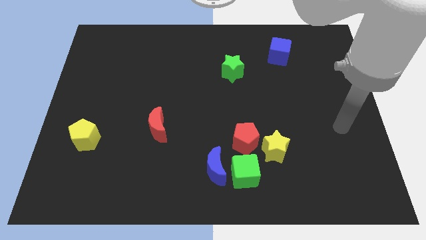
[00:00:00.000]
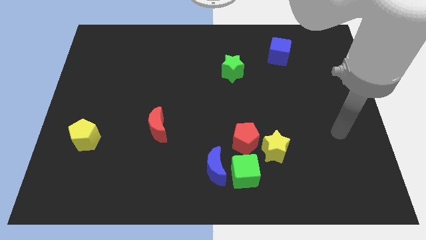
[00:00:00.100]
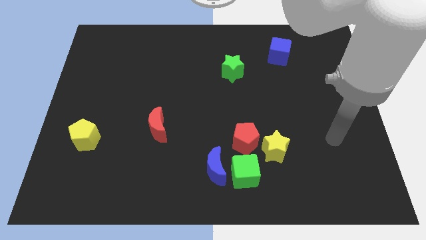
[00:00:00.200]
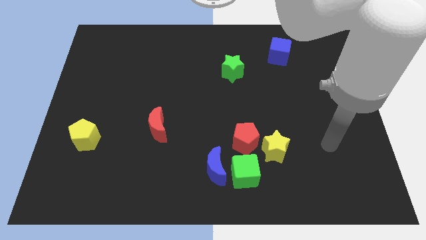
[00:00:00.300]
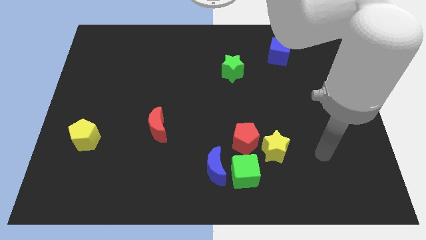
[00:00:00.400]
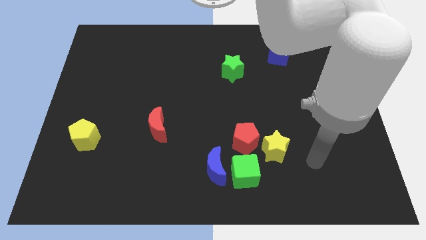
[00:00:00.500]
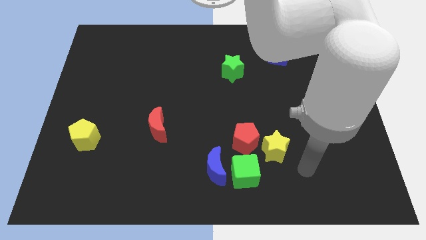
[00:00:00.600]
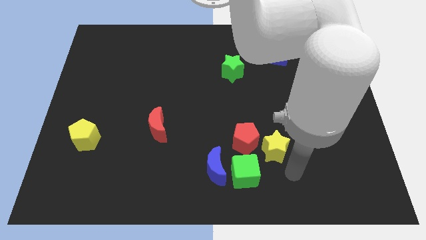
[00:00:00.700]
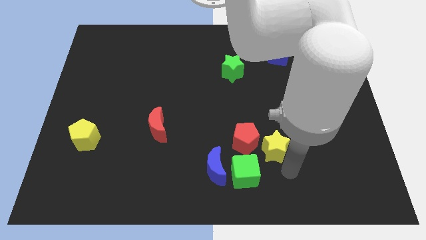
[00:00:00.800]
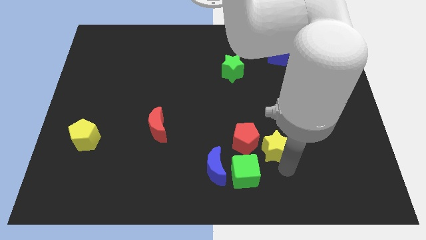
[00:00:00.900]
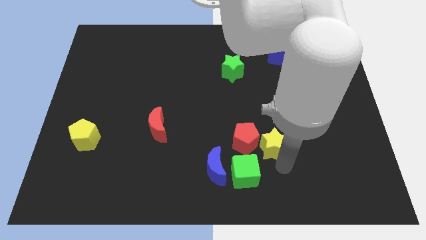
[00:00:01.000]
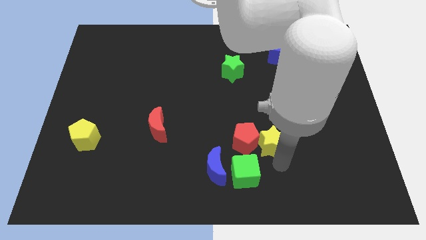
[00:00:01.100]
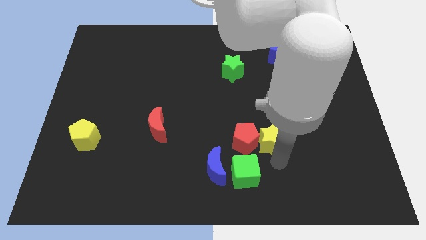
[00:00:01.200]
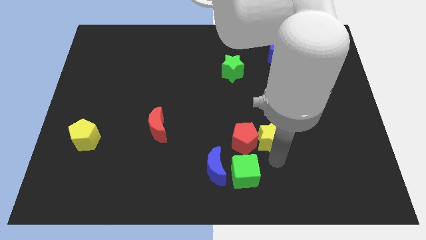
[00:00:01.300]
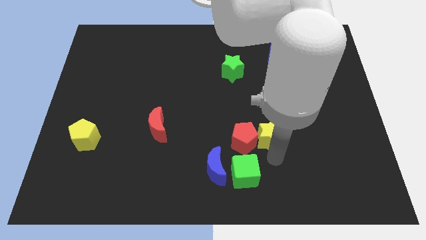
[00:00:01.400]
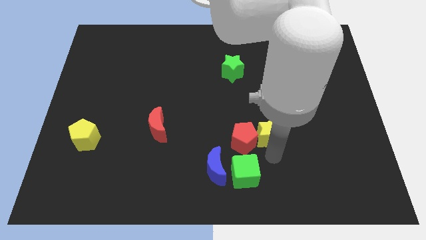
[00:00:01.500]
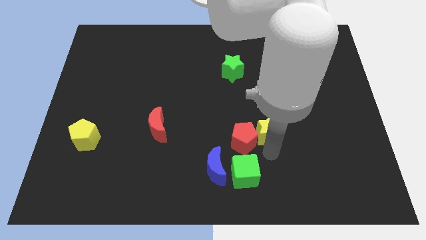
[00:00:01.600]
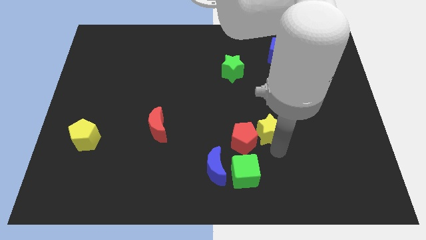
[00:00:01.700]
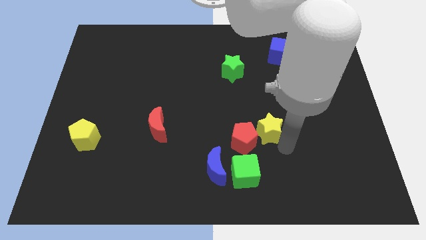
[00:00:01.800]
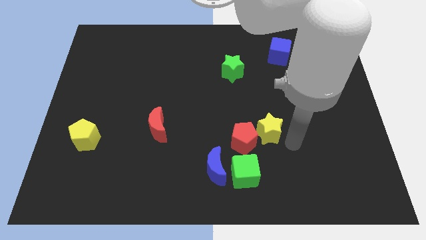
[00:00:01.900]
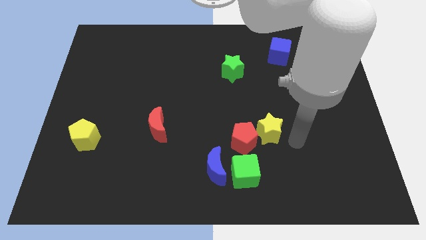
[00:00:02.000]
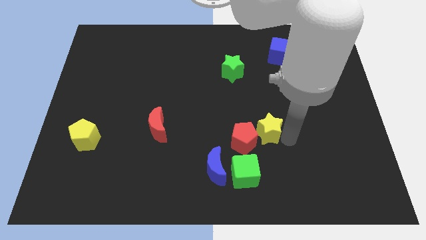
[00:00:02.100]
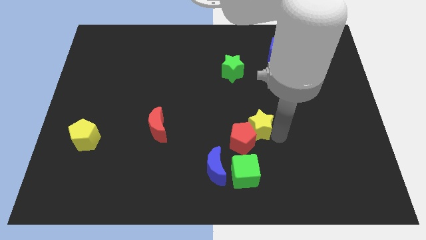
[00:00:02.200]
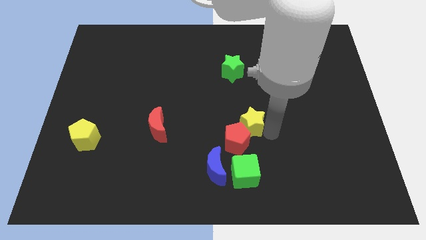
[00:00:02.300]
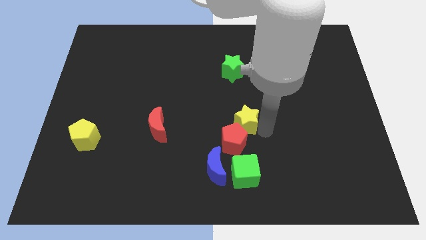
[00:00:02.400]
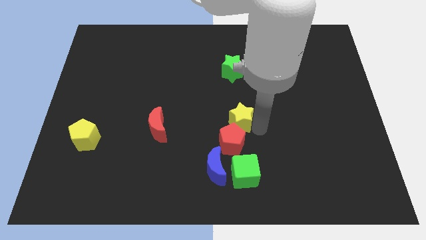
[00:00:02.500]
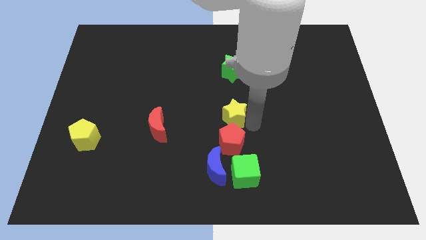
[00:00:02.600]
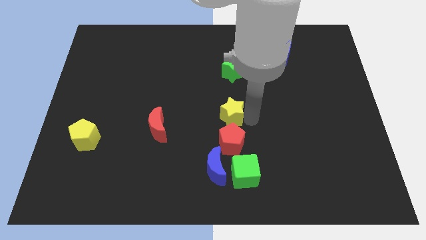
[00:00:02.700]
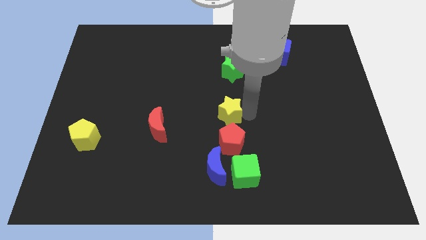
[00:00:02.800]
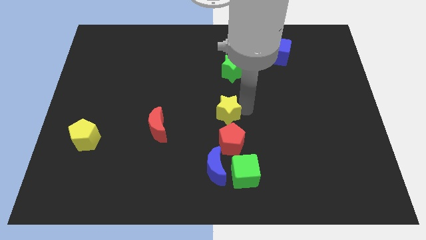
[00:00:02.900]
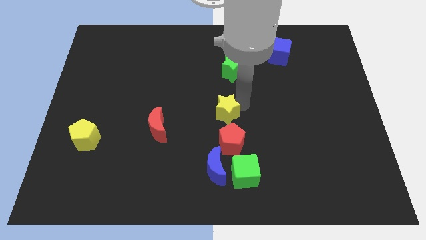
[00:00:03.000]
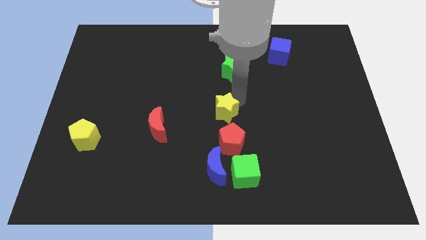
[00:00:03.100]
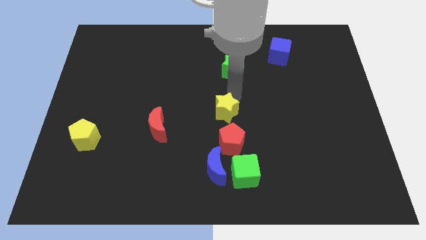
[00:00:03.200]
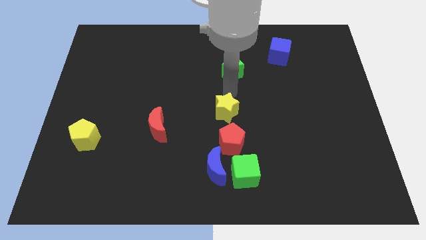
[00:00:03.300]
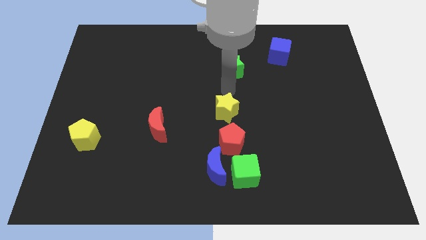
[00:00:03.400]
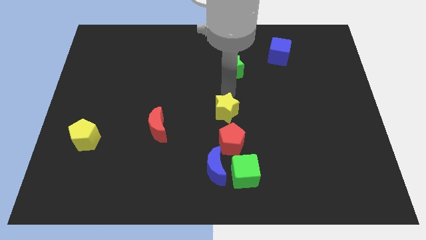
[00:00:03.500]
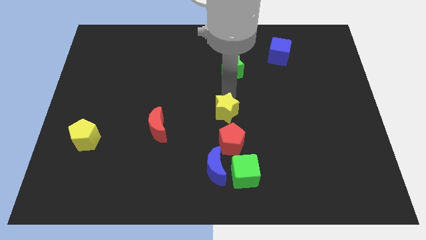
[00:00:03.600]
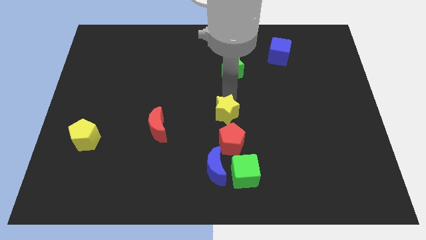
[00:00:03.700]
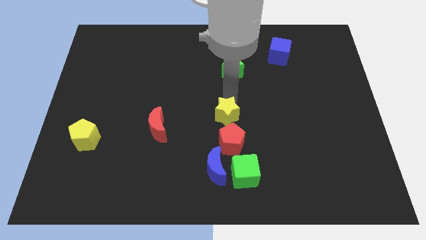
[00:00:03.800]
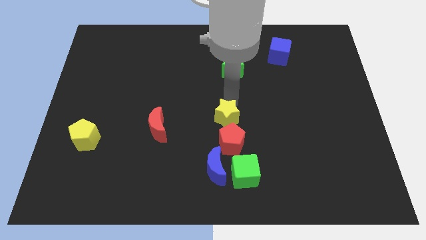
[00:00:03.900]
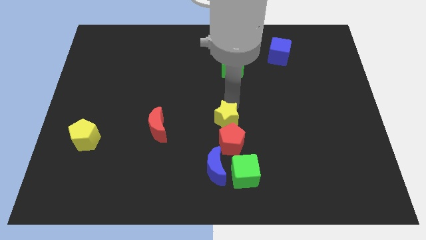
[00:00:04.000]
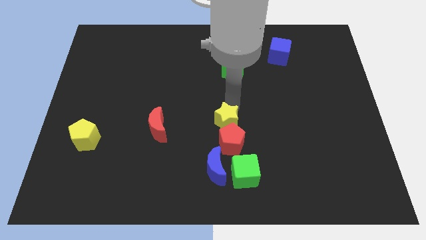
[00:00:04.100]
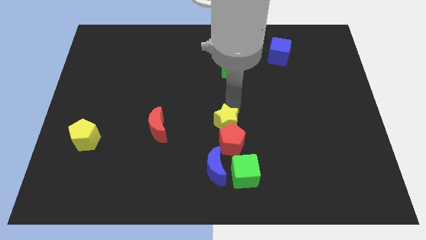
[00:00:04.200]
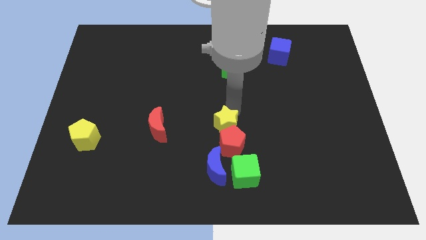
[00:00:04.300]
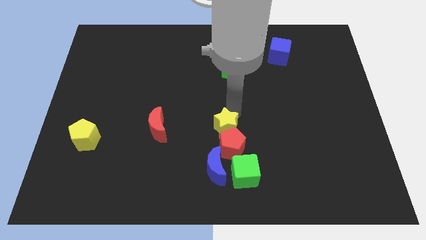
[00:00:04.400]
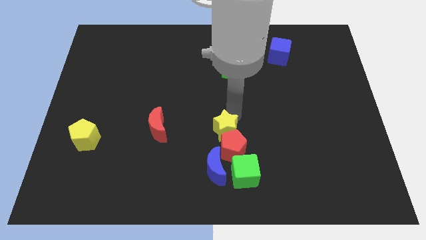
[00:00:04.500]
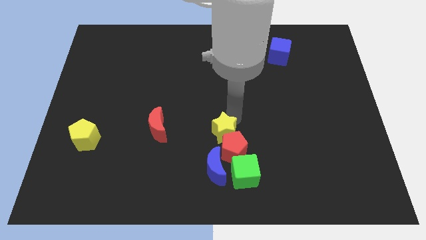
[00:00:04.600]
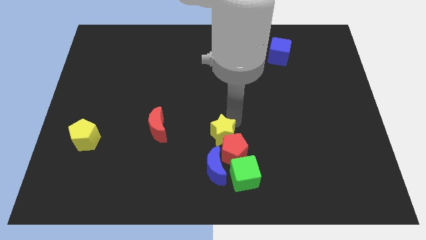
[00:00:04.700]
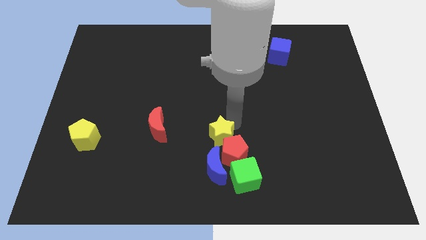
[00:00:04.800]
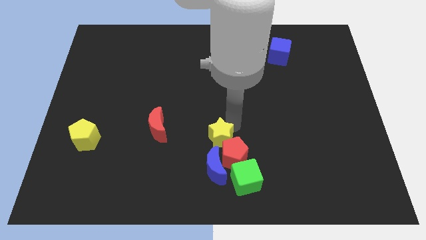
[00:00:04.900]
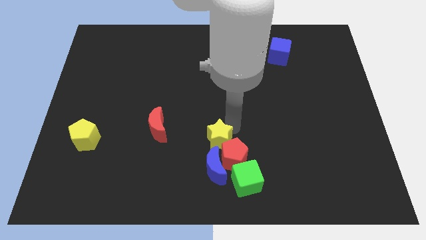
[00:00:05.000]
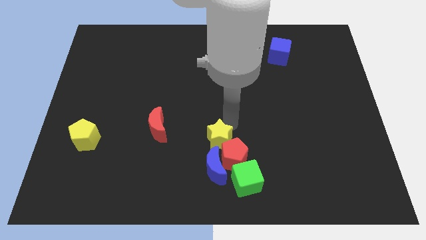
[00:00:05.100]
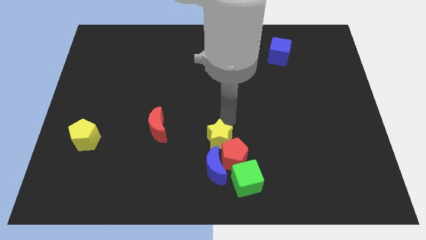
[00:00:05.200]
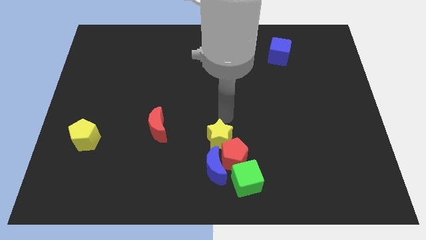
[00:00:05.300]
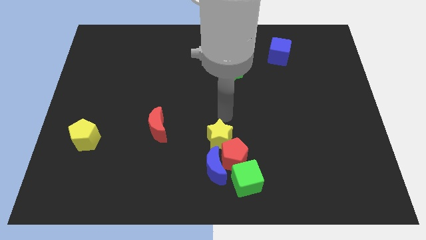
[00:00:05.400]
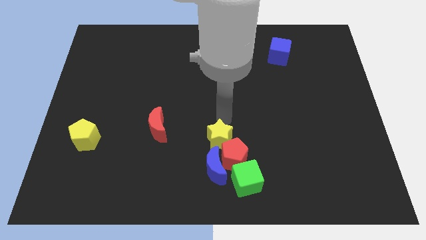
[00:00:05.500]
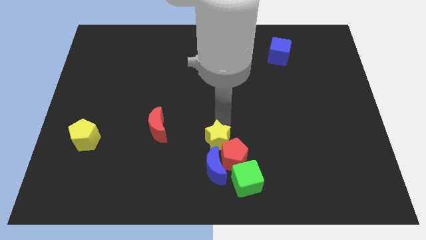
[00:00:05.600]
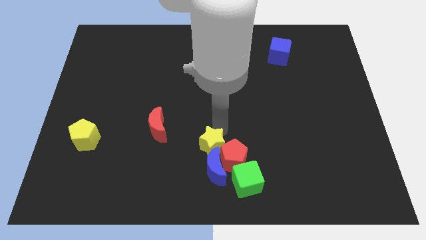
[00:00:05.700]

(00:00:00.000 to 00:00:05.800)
put the yellow star to the blue moon

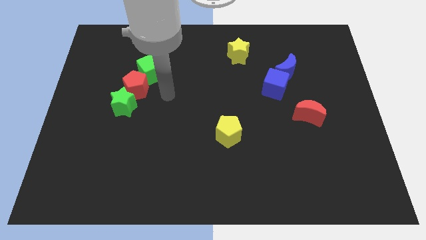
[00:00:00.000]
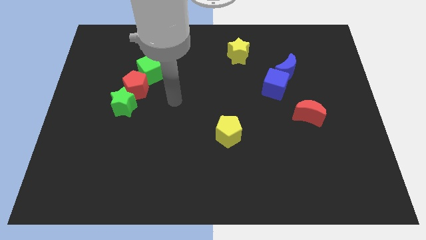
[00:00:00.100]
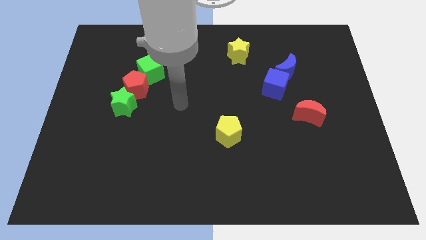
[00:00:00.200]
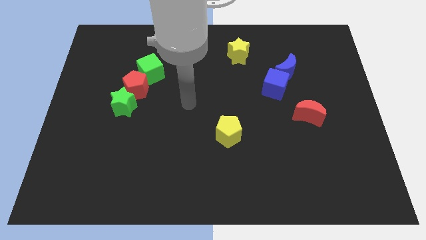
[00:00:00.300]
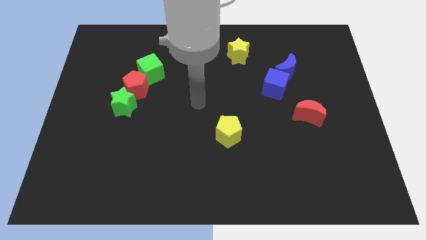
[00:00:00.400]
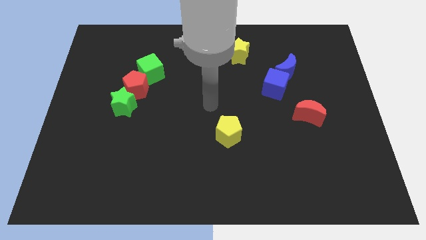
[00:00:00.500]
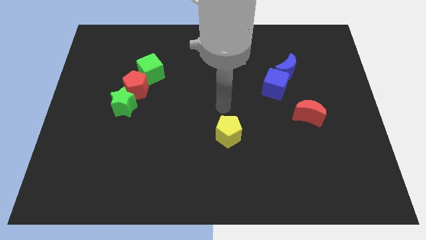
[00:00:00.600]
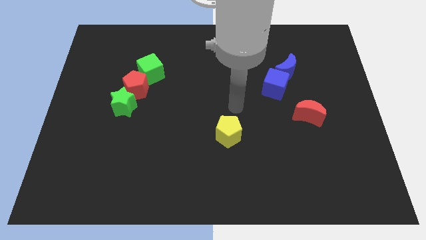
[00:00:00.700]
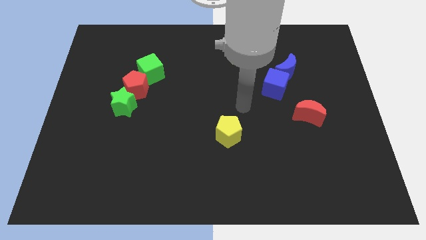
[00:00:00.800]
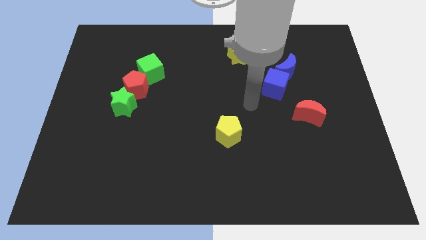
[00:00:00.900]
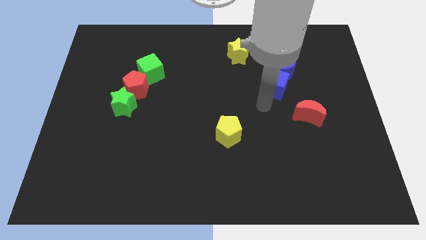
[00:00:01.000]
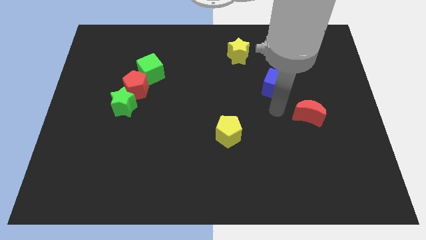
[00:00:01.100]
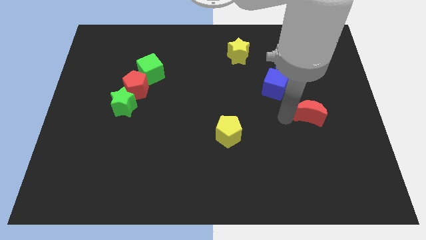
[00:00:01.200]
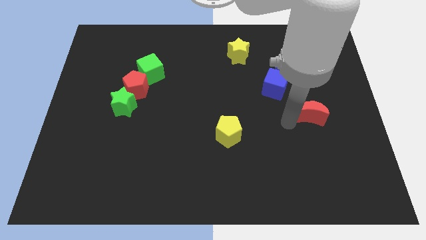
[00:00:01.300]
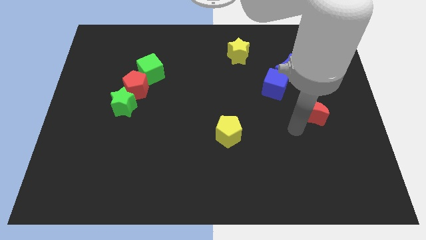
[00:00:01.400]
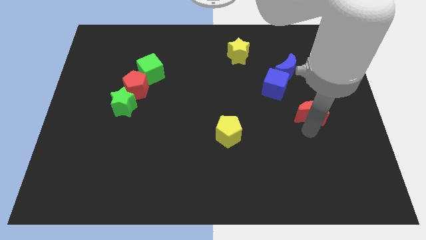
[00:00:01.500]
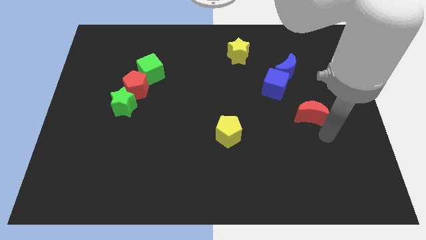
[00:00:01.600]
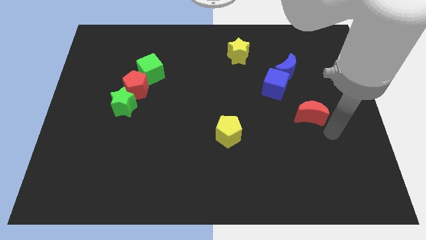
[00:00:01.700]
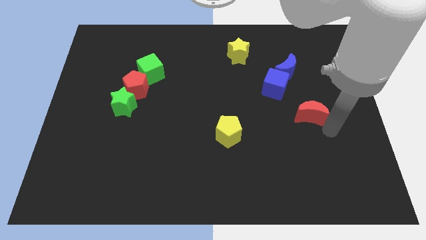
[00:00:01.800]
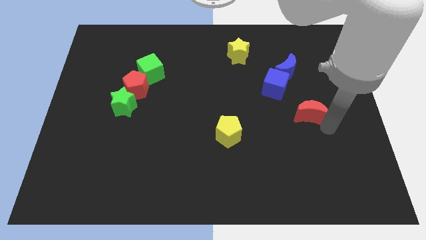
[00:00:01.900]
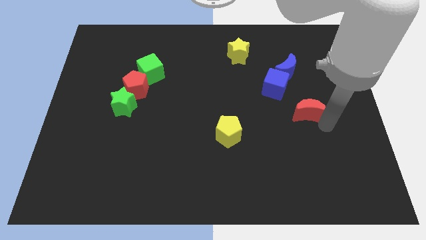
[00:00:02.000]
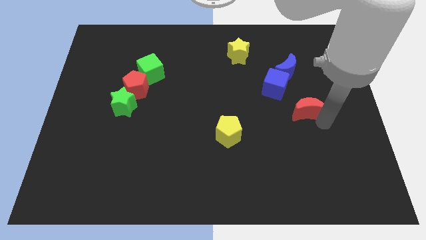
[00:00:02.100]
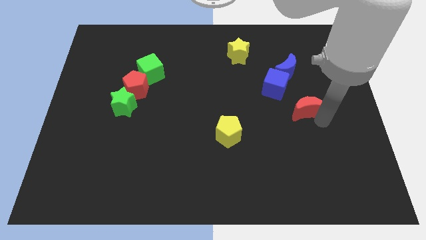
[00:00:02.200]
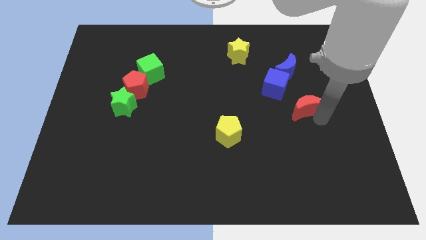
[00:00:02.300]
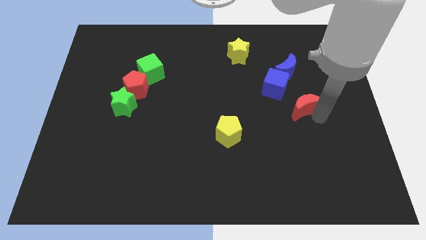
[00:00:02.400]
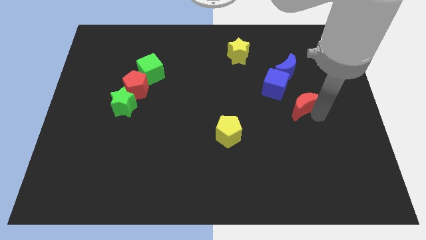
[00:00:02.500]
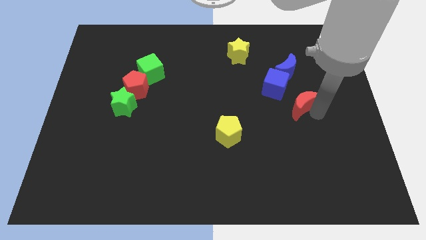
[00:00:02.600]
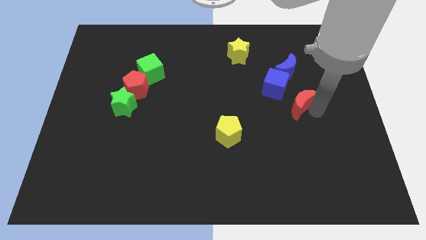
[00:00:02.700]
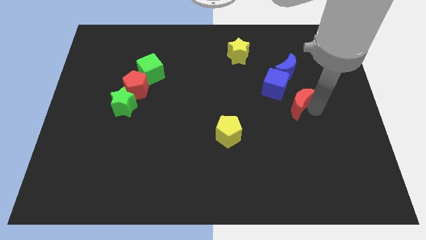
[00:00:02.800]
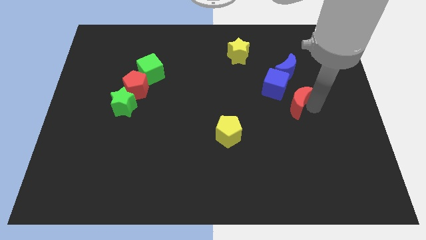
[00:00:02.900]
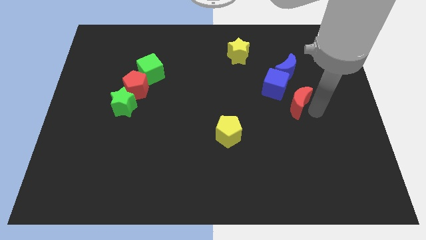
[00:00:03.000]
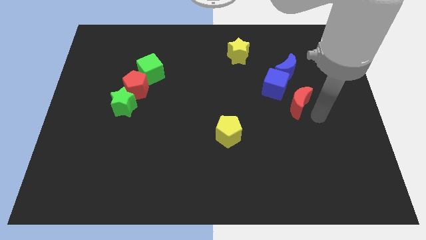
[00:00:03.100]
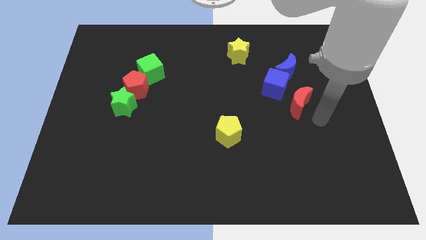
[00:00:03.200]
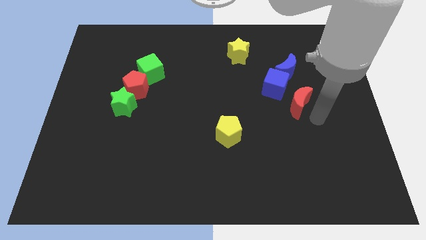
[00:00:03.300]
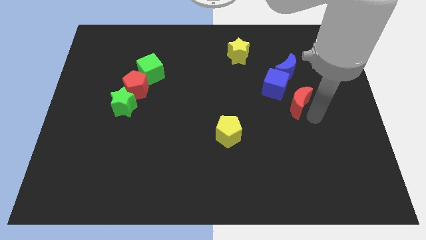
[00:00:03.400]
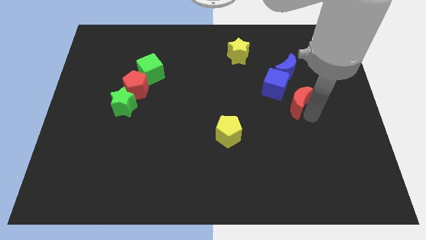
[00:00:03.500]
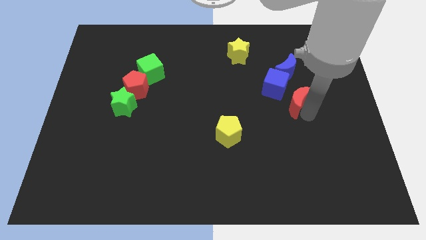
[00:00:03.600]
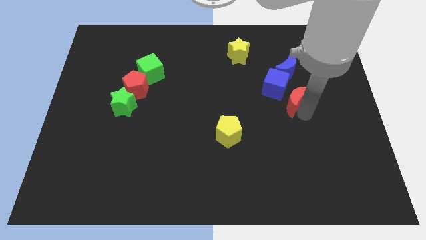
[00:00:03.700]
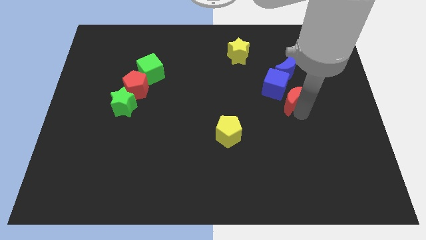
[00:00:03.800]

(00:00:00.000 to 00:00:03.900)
put the red moon to the blue cube
